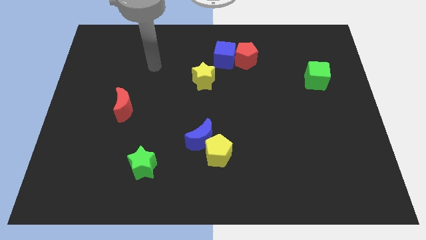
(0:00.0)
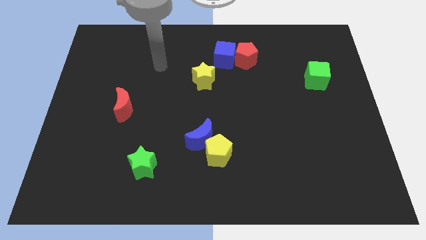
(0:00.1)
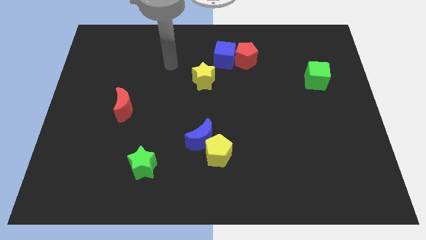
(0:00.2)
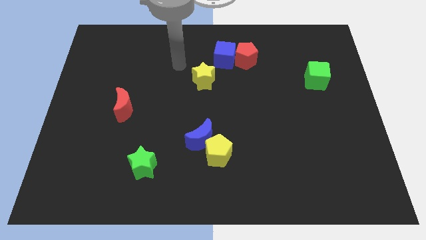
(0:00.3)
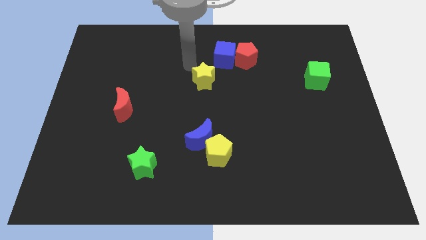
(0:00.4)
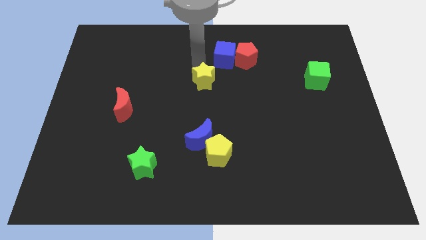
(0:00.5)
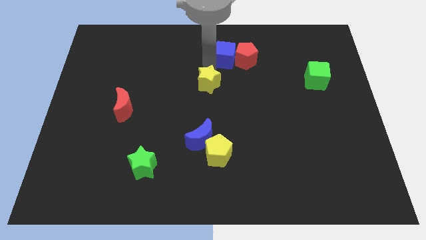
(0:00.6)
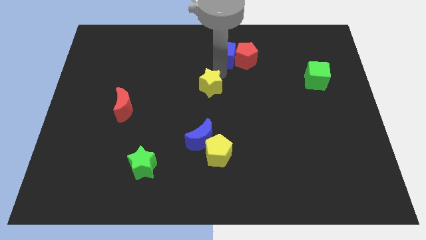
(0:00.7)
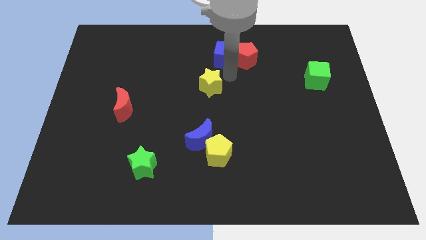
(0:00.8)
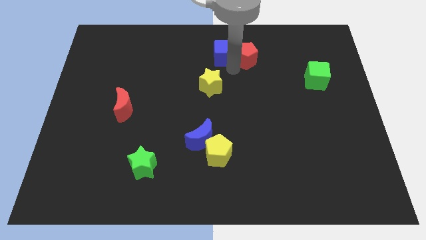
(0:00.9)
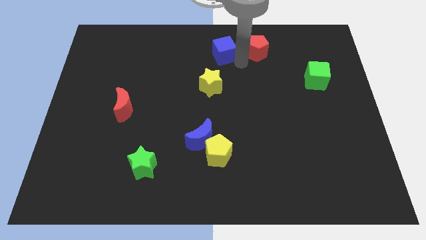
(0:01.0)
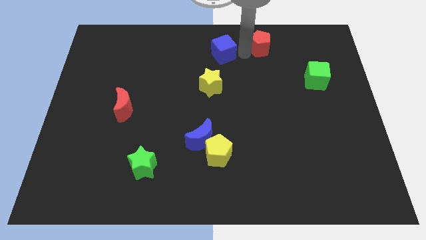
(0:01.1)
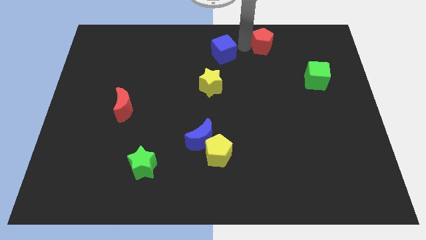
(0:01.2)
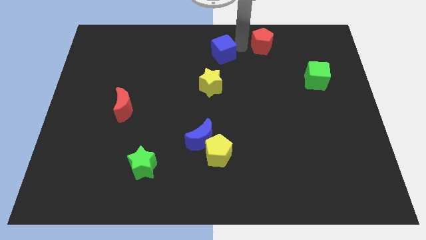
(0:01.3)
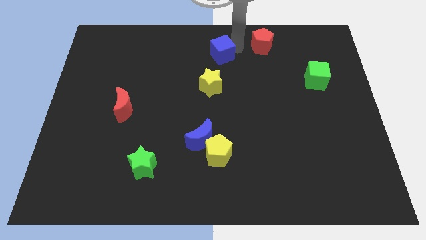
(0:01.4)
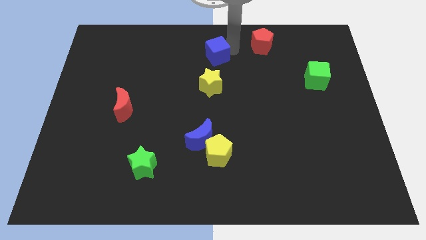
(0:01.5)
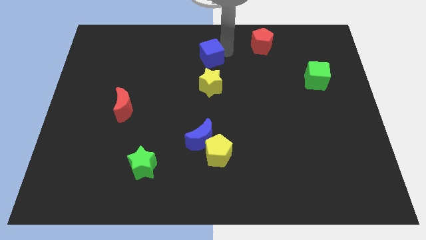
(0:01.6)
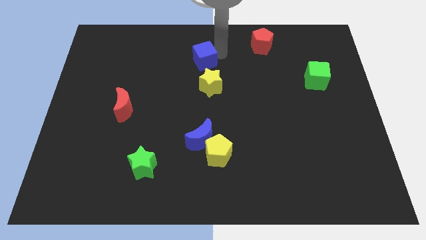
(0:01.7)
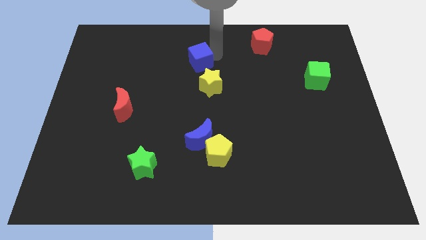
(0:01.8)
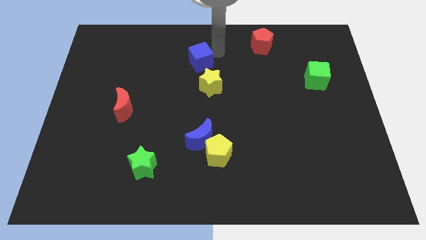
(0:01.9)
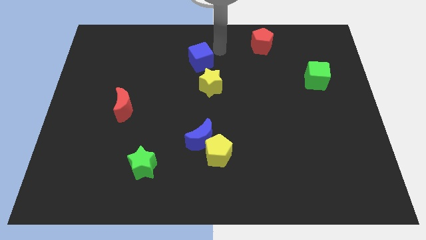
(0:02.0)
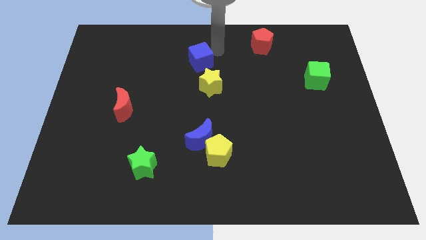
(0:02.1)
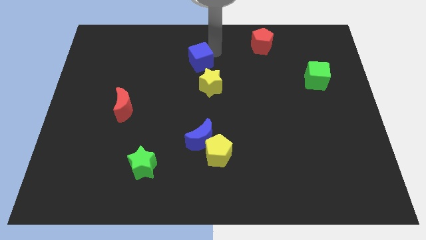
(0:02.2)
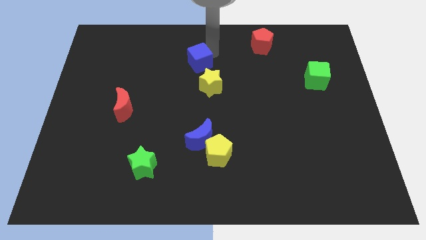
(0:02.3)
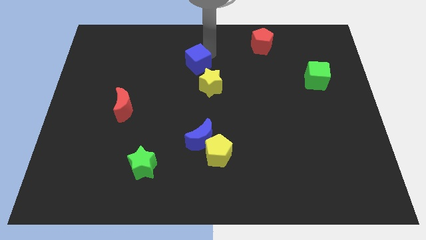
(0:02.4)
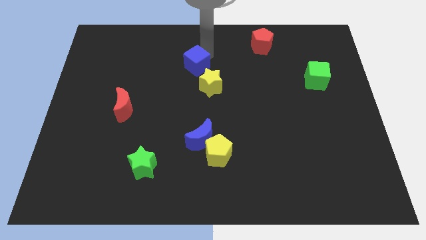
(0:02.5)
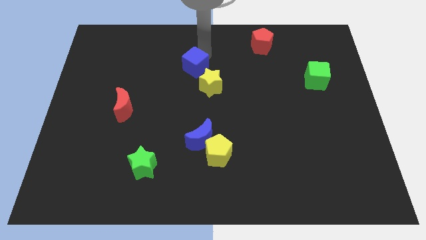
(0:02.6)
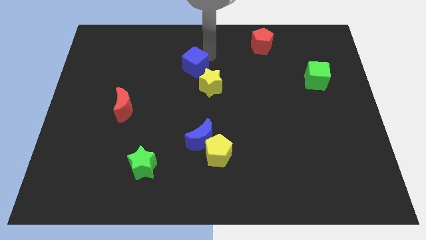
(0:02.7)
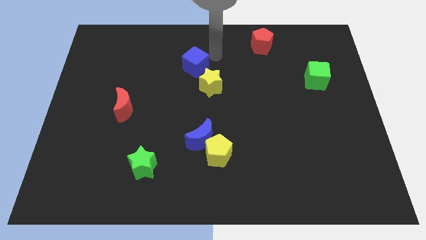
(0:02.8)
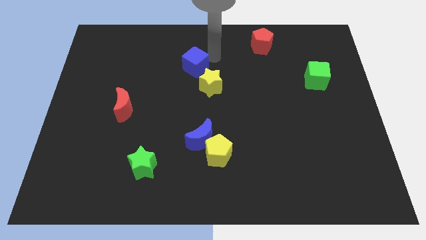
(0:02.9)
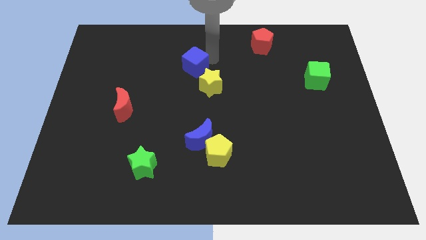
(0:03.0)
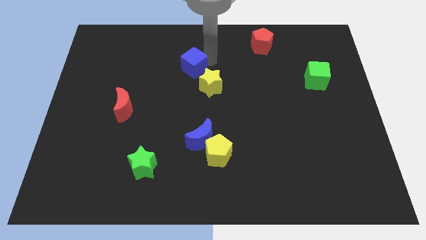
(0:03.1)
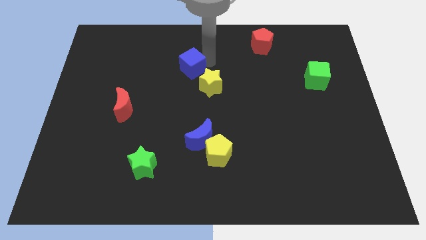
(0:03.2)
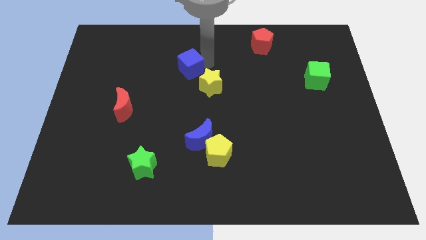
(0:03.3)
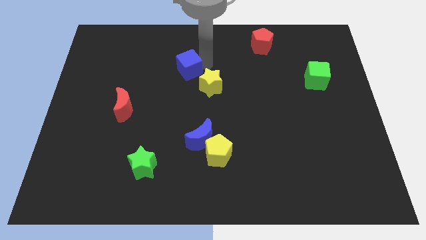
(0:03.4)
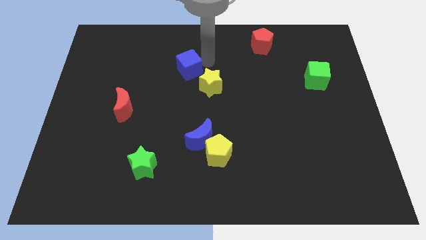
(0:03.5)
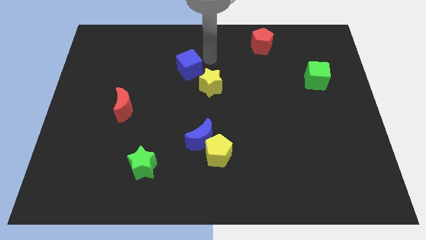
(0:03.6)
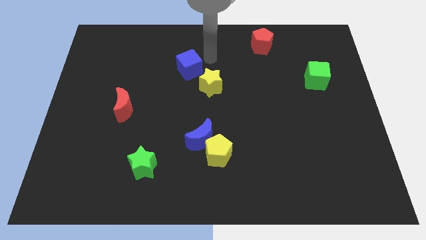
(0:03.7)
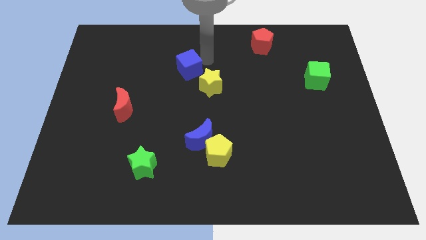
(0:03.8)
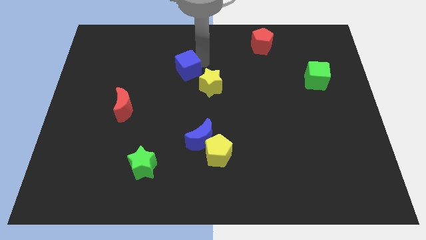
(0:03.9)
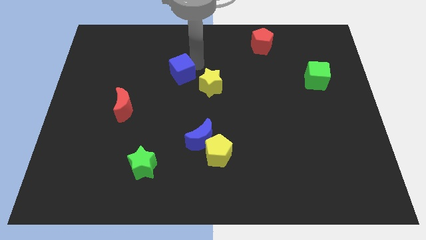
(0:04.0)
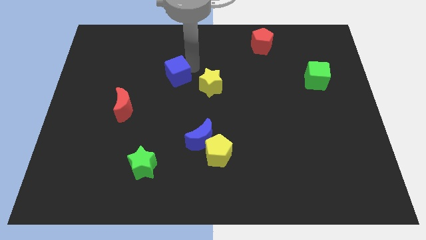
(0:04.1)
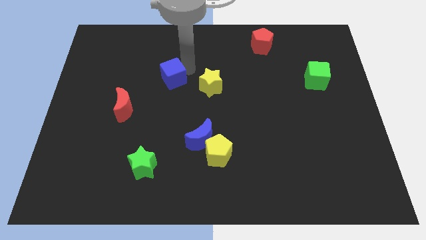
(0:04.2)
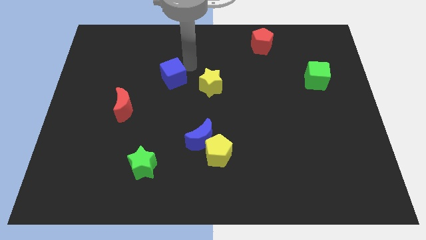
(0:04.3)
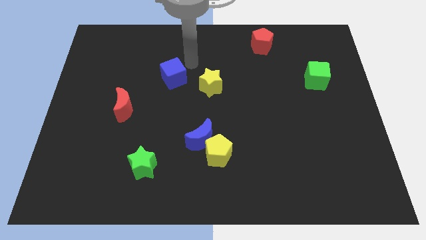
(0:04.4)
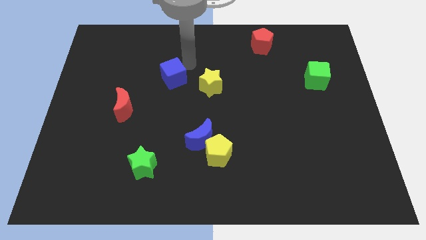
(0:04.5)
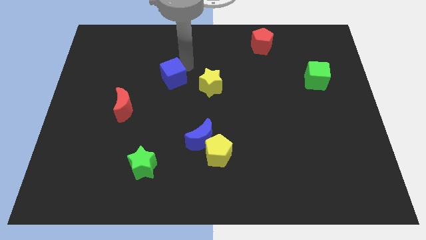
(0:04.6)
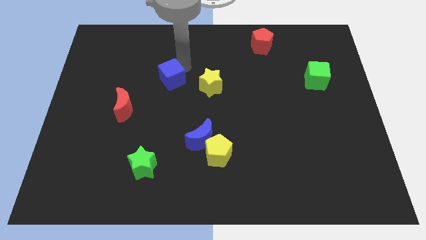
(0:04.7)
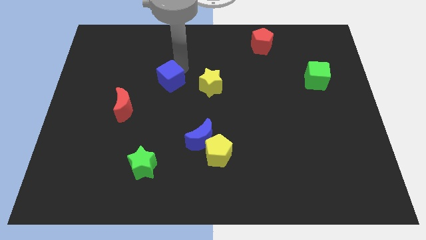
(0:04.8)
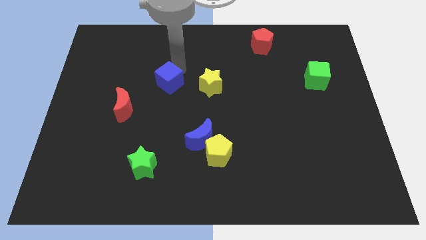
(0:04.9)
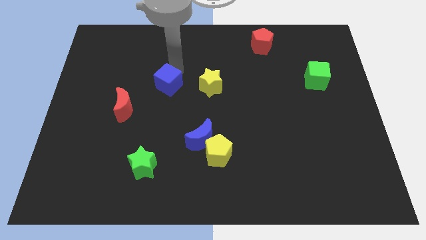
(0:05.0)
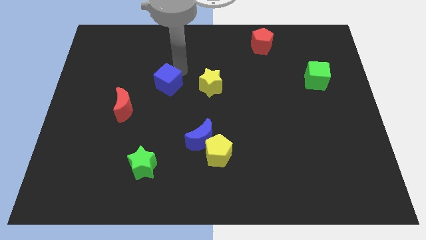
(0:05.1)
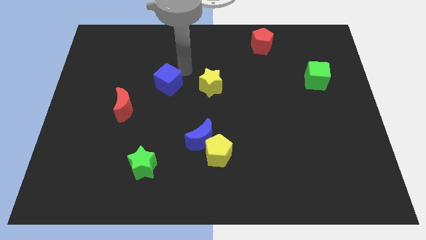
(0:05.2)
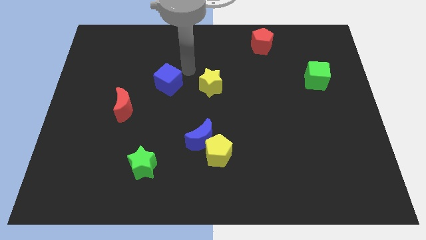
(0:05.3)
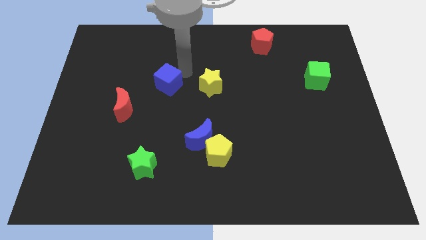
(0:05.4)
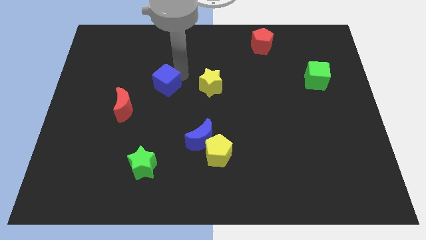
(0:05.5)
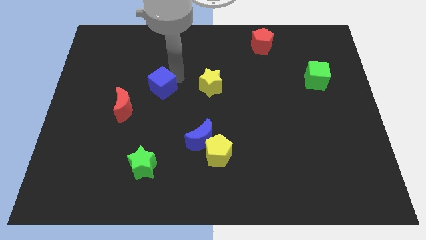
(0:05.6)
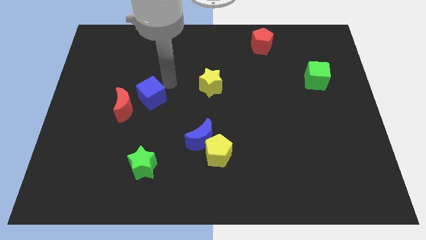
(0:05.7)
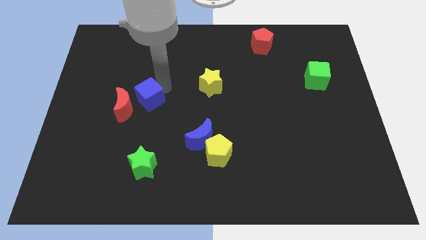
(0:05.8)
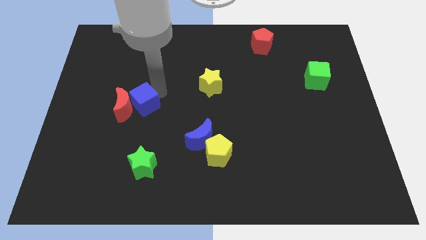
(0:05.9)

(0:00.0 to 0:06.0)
put the blue cube to the red moon
